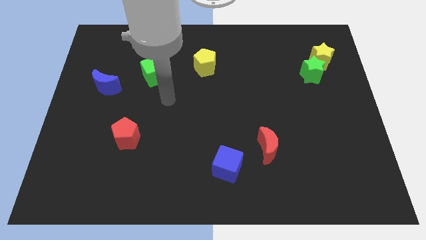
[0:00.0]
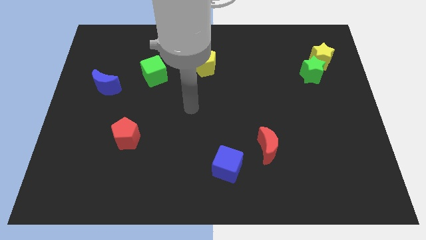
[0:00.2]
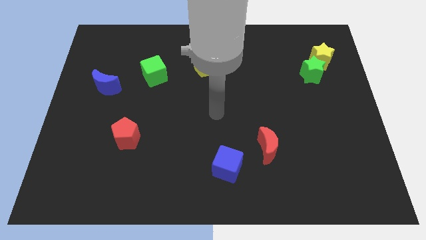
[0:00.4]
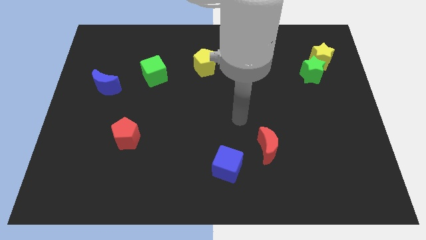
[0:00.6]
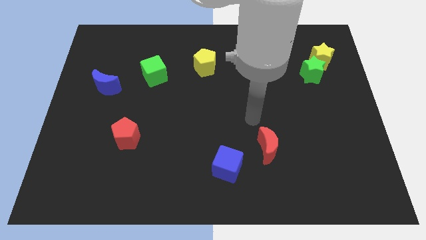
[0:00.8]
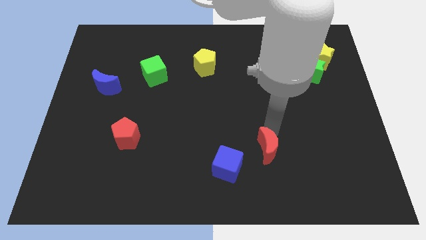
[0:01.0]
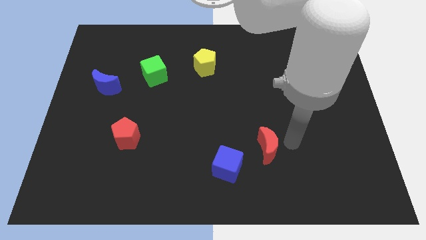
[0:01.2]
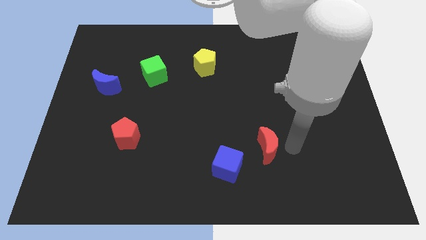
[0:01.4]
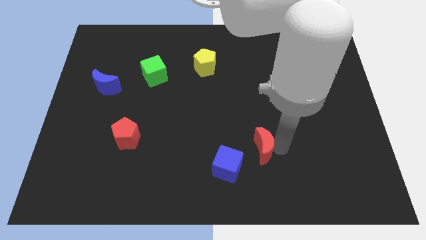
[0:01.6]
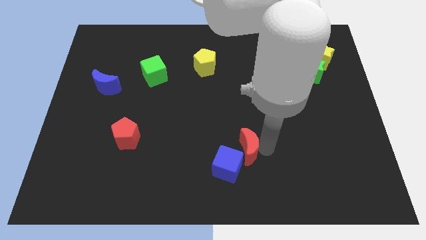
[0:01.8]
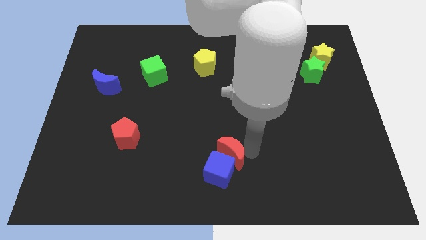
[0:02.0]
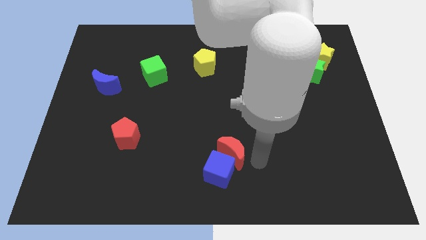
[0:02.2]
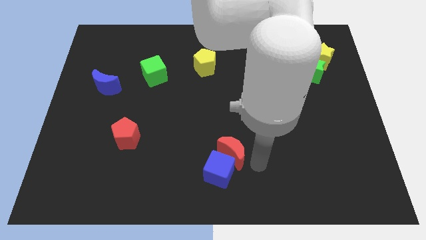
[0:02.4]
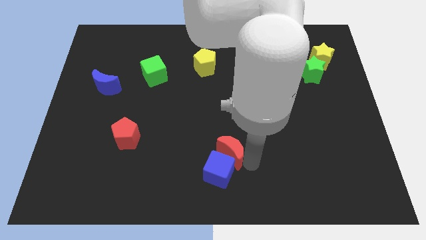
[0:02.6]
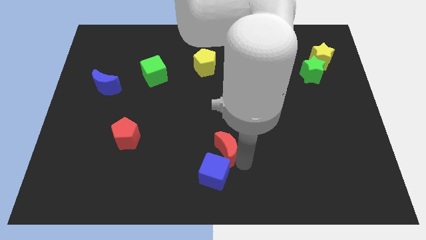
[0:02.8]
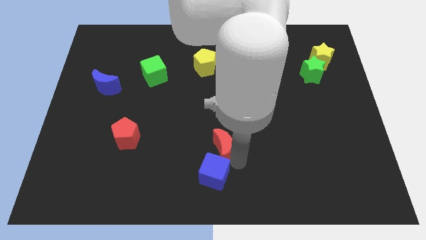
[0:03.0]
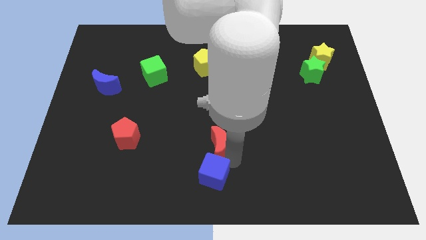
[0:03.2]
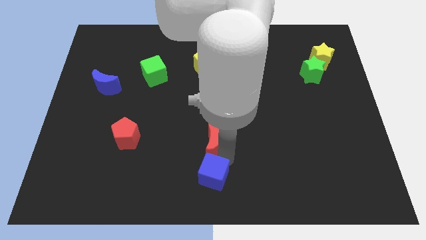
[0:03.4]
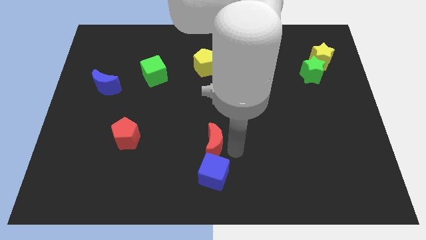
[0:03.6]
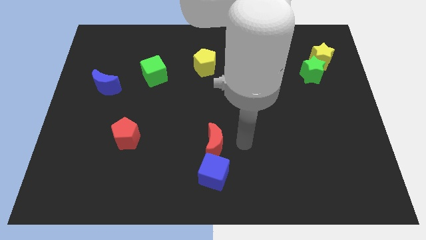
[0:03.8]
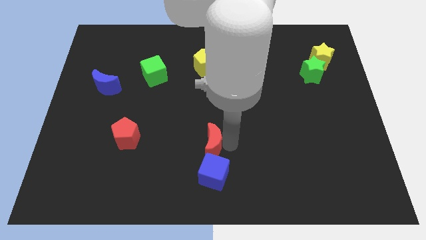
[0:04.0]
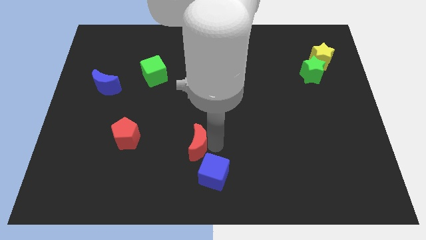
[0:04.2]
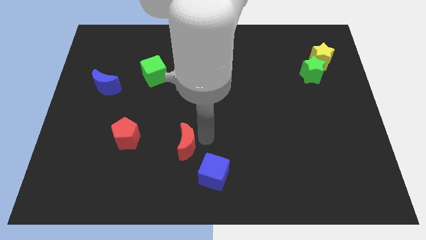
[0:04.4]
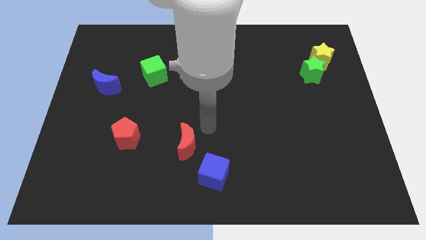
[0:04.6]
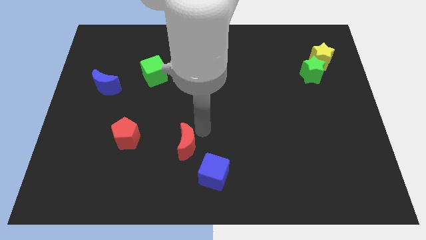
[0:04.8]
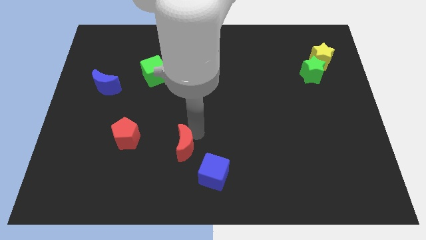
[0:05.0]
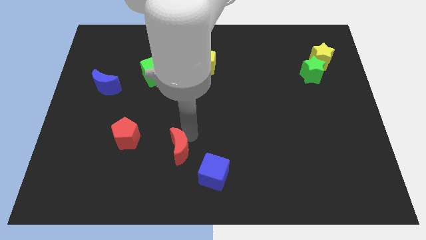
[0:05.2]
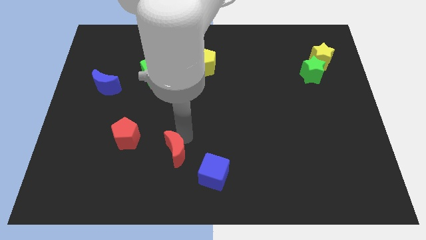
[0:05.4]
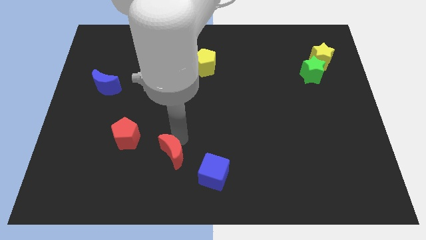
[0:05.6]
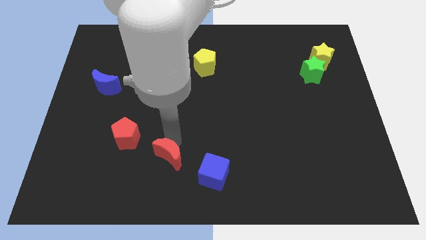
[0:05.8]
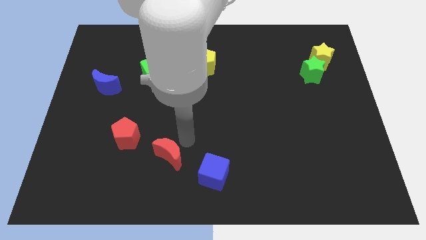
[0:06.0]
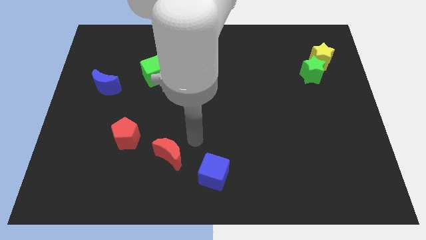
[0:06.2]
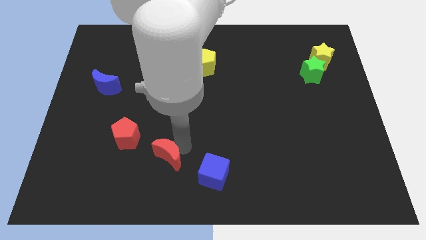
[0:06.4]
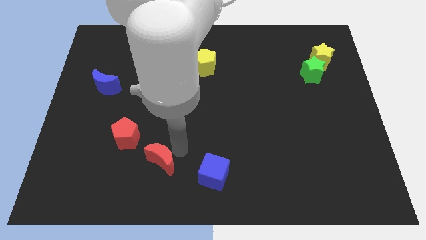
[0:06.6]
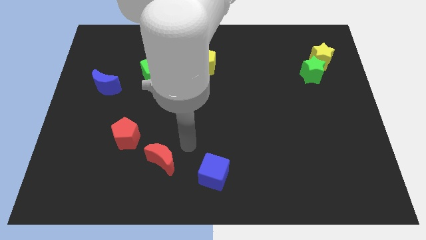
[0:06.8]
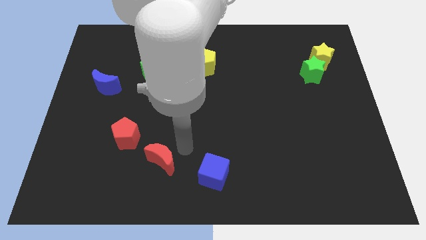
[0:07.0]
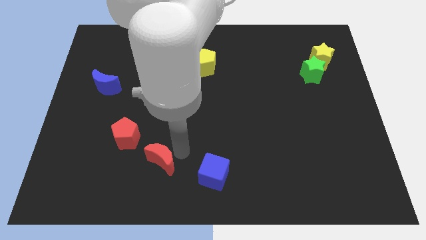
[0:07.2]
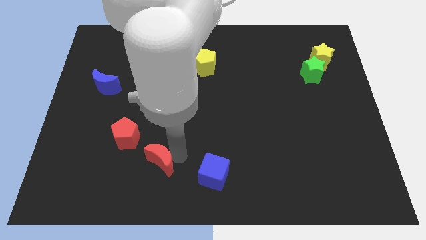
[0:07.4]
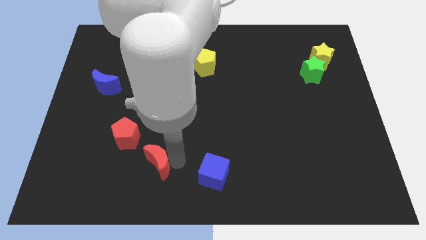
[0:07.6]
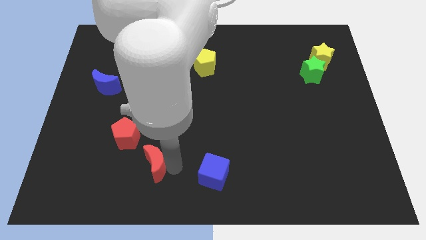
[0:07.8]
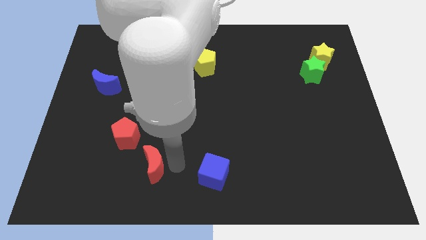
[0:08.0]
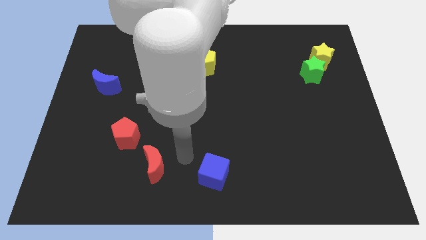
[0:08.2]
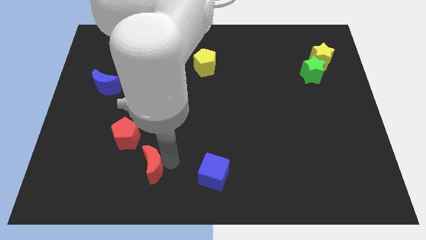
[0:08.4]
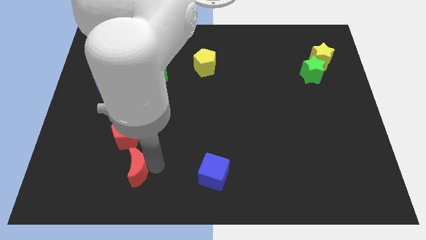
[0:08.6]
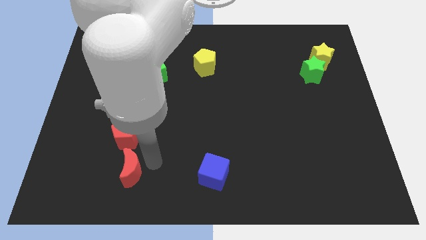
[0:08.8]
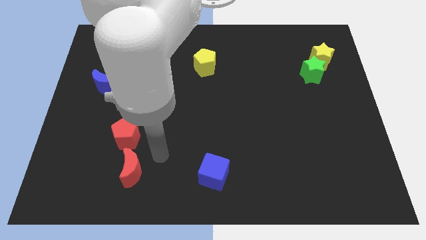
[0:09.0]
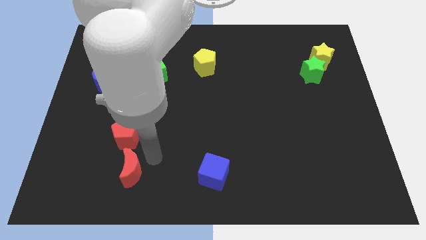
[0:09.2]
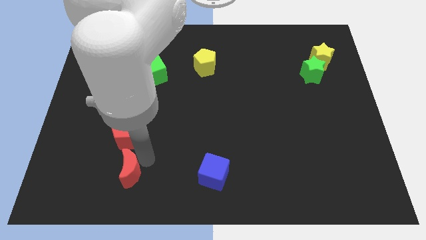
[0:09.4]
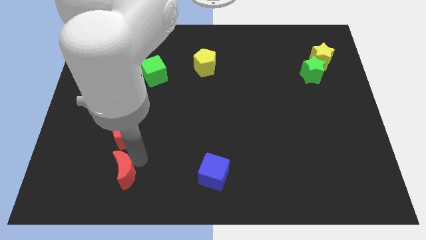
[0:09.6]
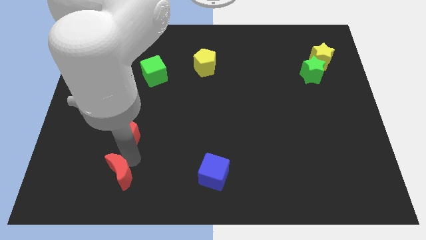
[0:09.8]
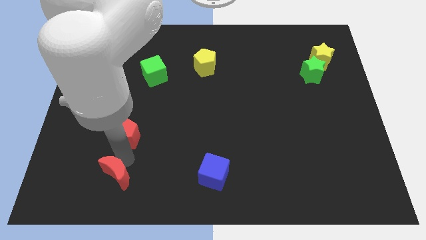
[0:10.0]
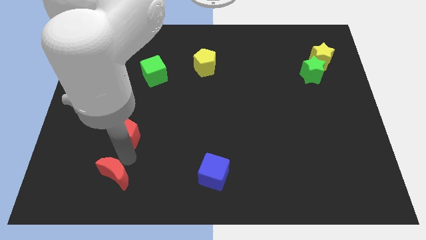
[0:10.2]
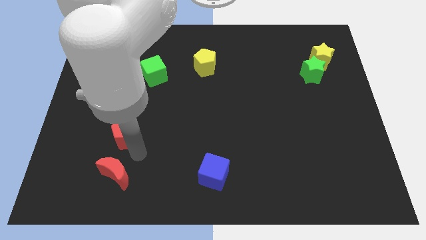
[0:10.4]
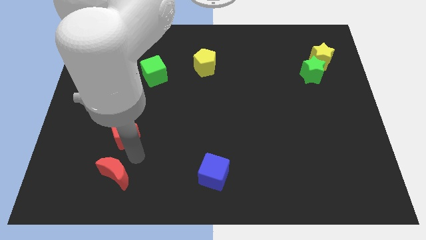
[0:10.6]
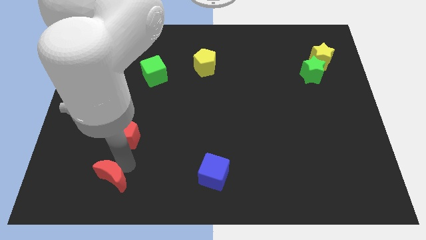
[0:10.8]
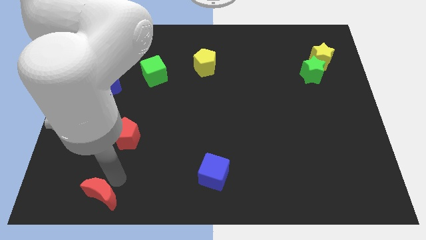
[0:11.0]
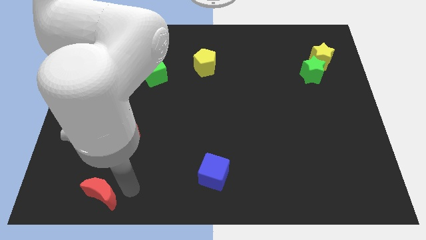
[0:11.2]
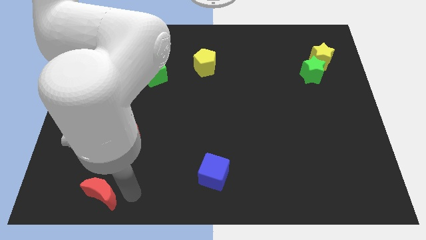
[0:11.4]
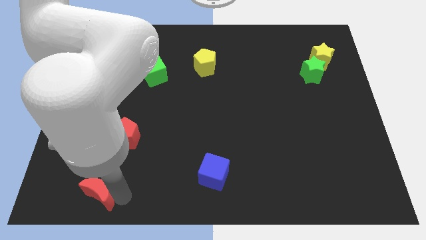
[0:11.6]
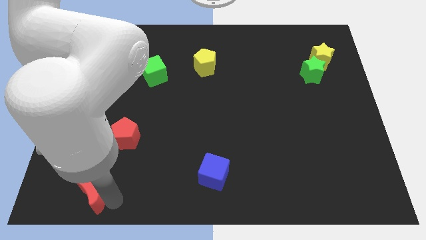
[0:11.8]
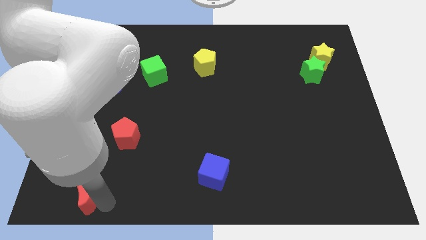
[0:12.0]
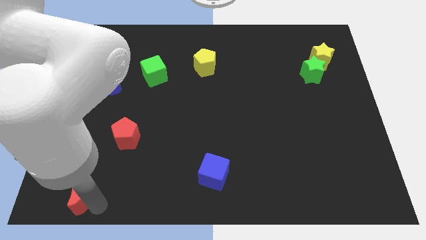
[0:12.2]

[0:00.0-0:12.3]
slide the red moon to the bottom left

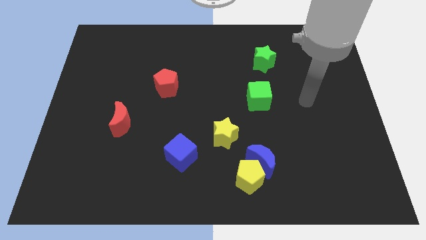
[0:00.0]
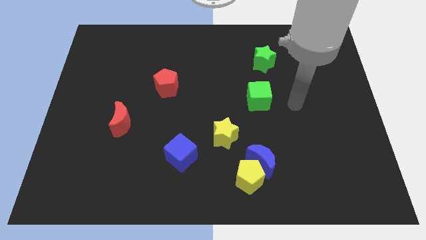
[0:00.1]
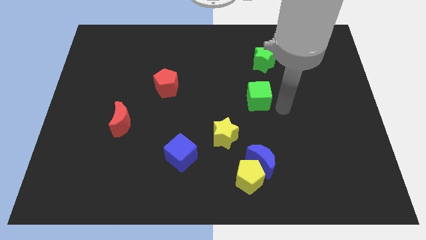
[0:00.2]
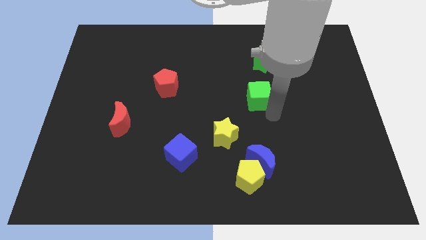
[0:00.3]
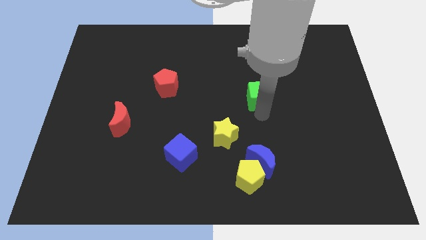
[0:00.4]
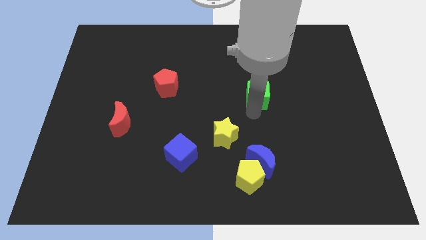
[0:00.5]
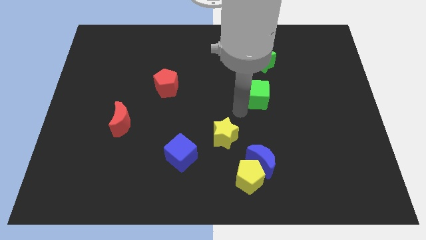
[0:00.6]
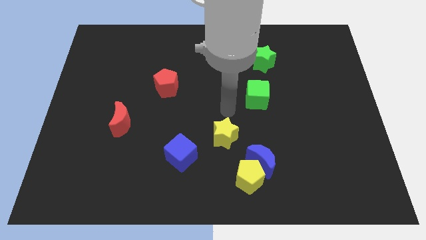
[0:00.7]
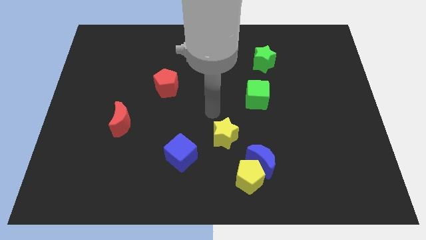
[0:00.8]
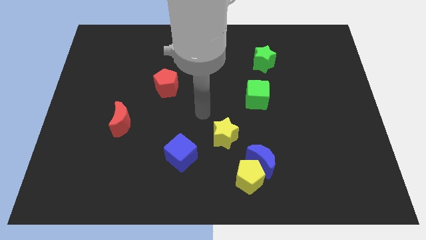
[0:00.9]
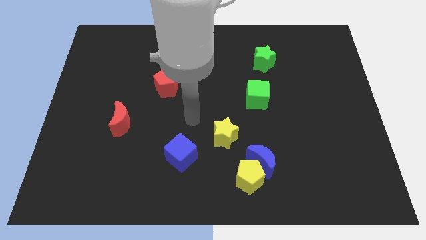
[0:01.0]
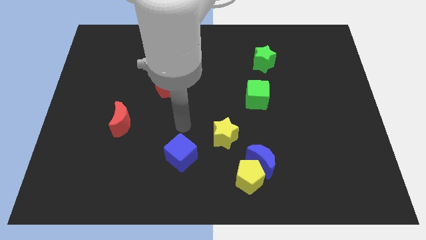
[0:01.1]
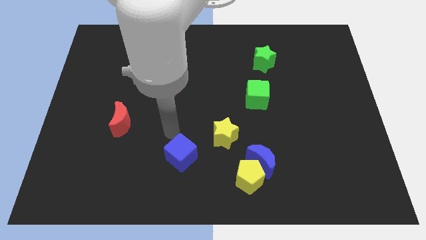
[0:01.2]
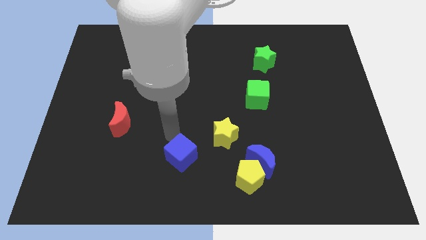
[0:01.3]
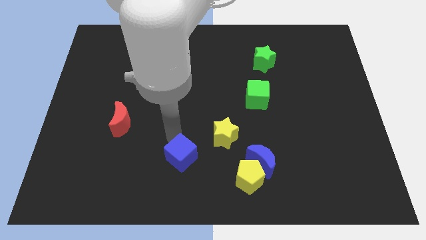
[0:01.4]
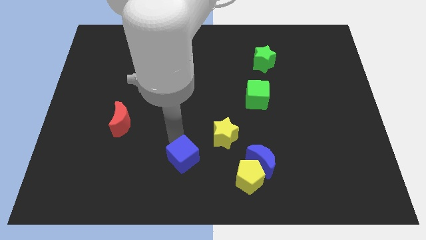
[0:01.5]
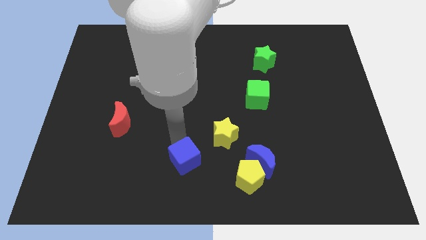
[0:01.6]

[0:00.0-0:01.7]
put the blue cube to the bottom

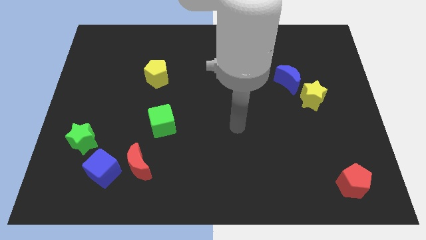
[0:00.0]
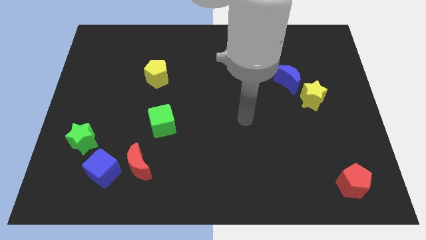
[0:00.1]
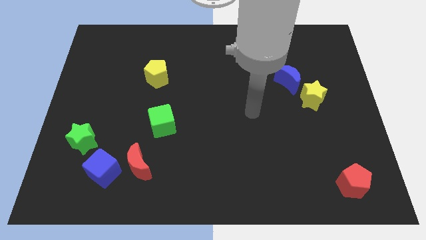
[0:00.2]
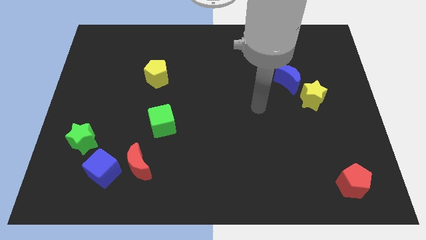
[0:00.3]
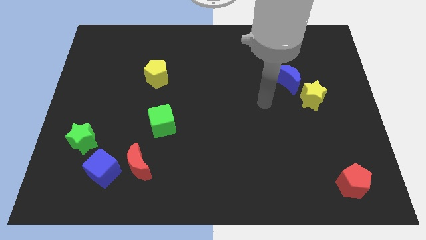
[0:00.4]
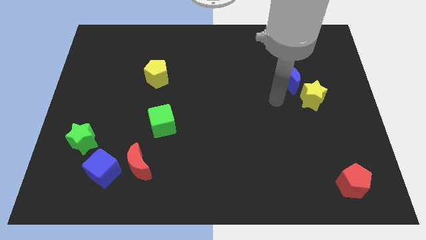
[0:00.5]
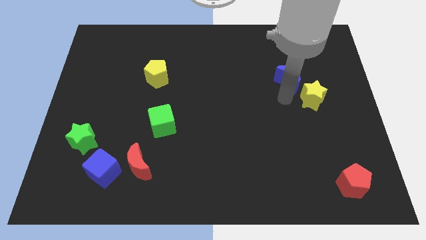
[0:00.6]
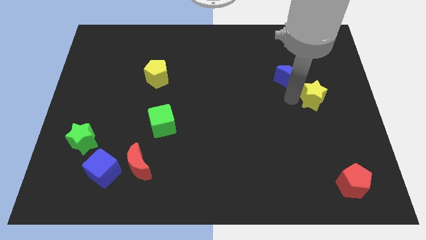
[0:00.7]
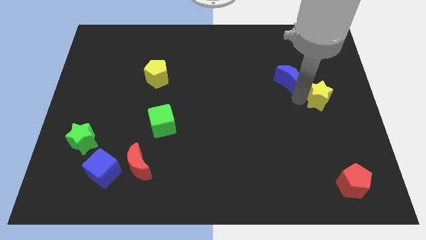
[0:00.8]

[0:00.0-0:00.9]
slide the yellow star to the right side
